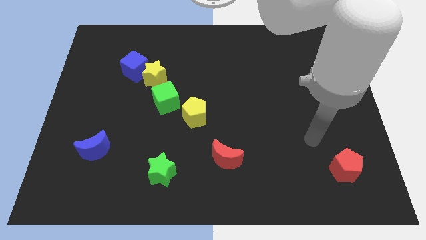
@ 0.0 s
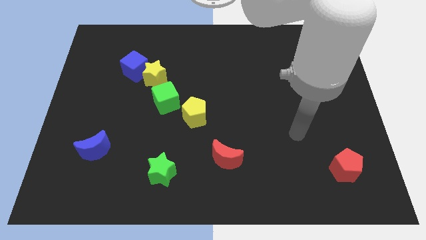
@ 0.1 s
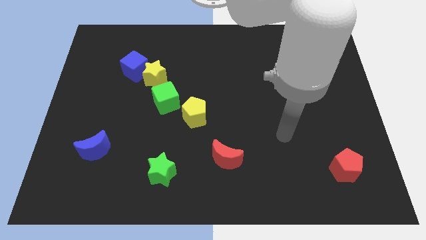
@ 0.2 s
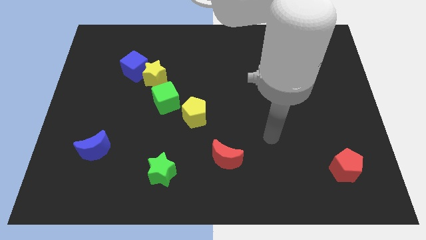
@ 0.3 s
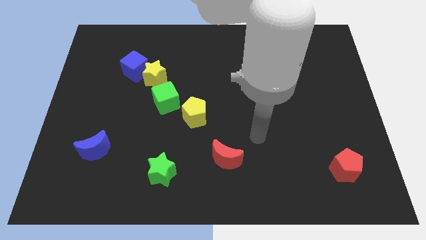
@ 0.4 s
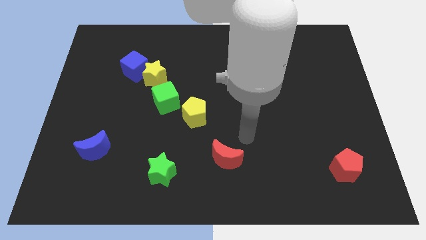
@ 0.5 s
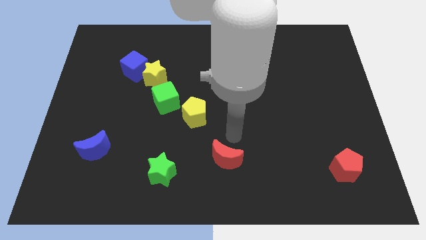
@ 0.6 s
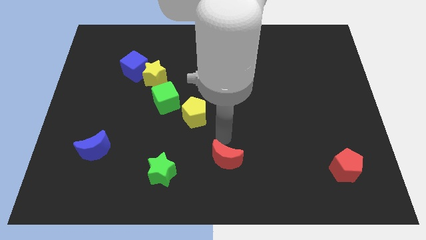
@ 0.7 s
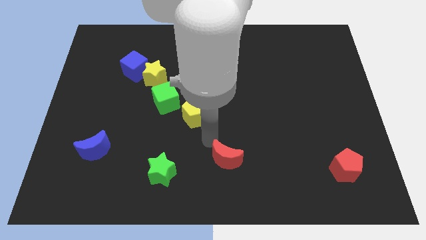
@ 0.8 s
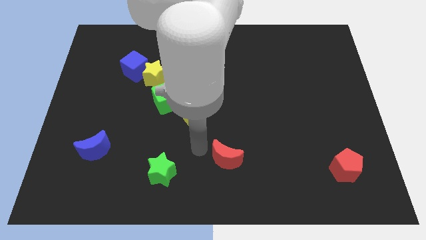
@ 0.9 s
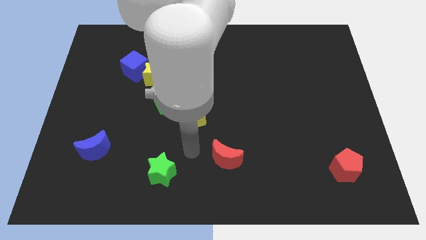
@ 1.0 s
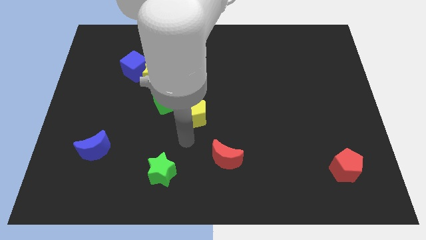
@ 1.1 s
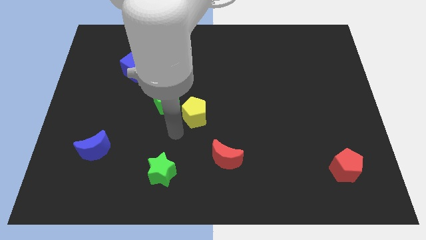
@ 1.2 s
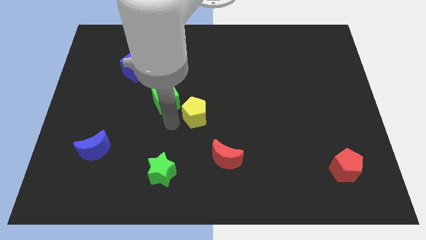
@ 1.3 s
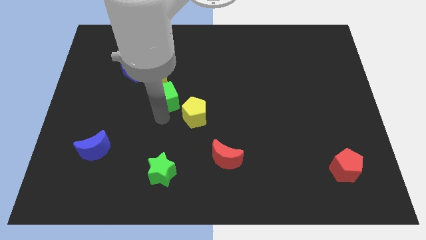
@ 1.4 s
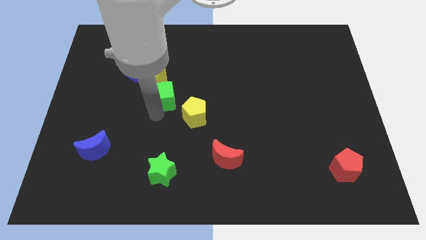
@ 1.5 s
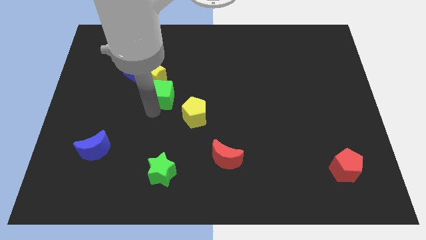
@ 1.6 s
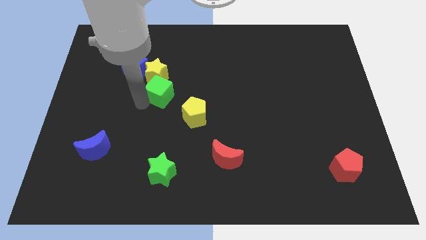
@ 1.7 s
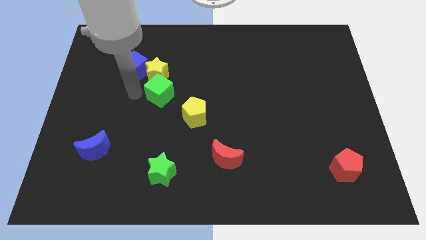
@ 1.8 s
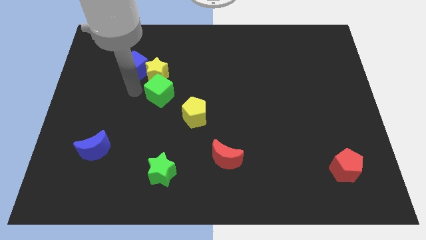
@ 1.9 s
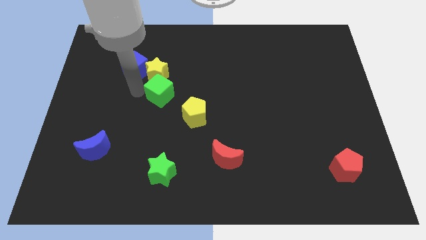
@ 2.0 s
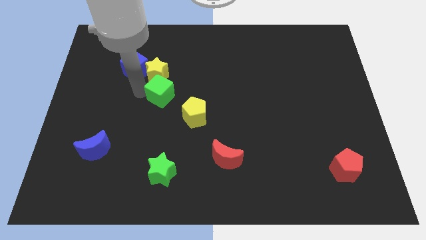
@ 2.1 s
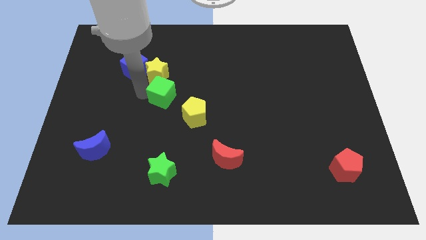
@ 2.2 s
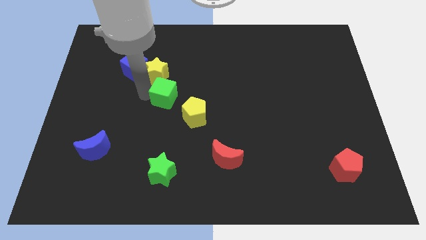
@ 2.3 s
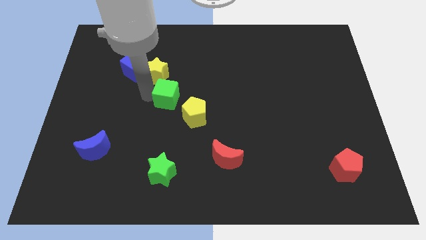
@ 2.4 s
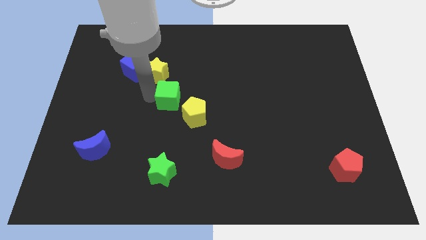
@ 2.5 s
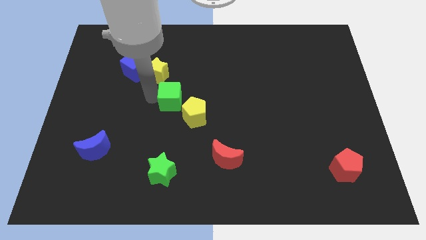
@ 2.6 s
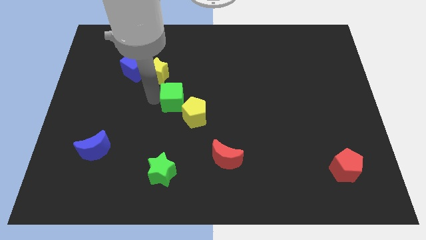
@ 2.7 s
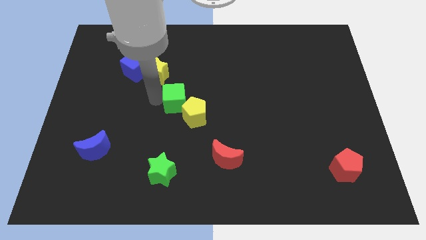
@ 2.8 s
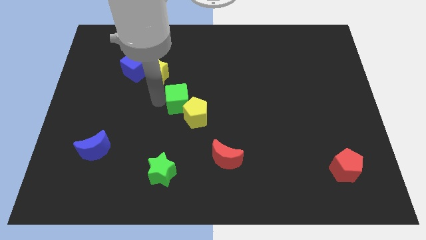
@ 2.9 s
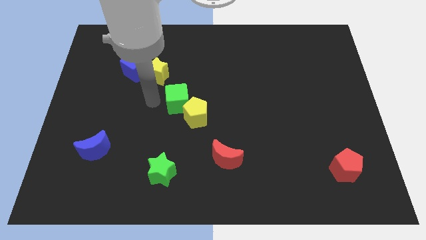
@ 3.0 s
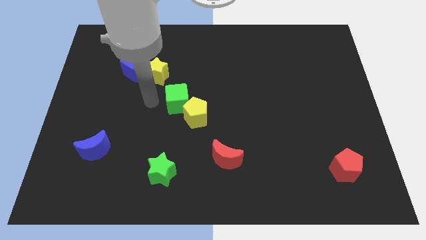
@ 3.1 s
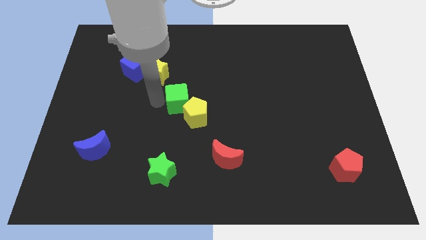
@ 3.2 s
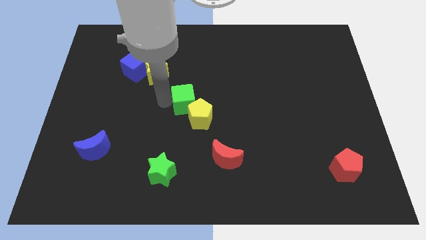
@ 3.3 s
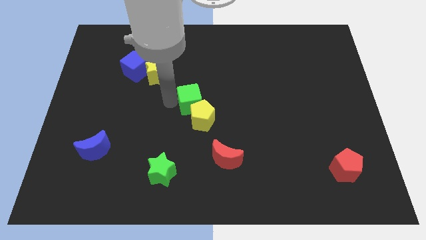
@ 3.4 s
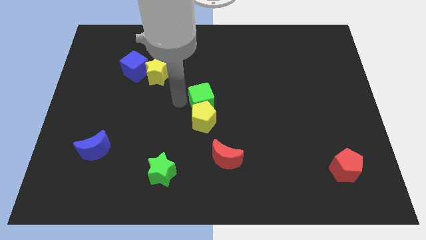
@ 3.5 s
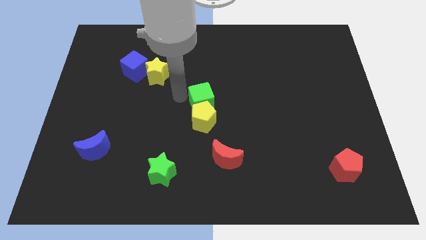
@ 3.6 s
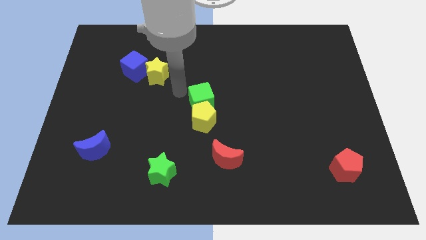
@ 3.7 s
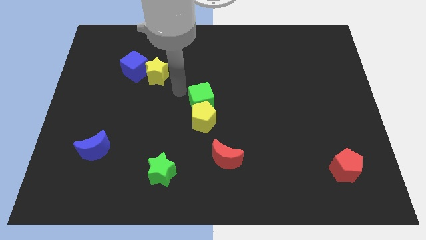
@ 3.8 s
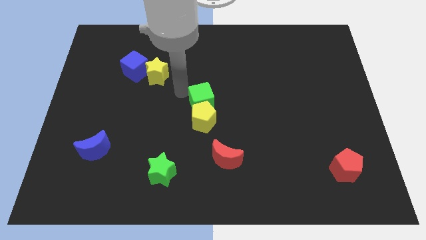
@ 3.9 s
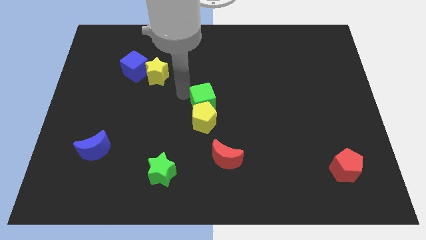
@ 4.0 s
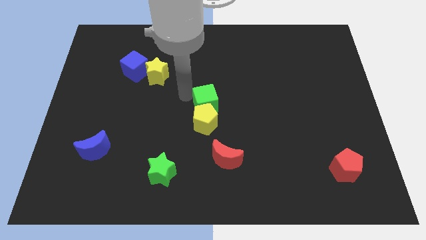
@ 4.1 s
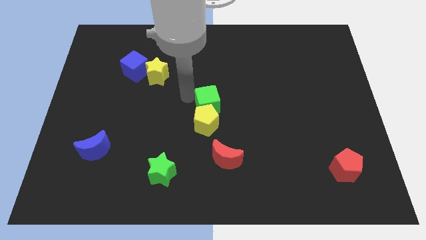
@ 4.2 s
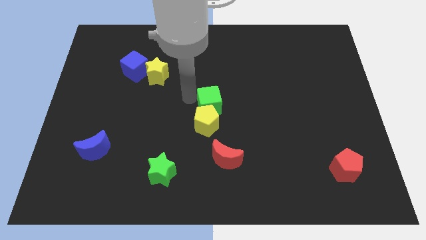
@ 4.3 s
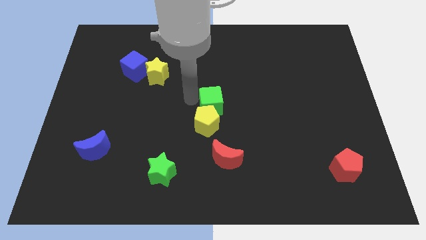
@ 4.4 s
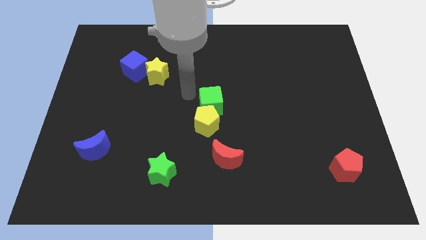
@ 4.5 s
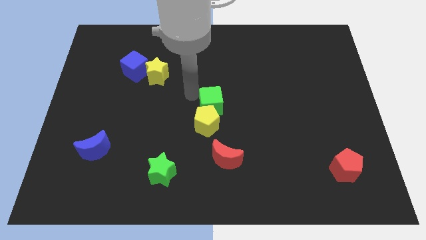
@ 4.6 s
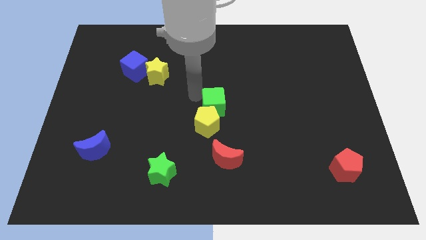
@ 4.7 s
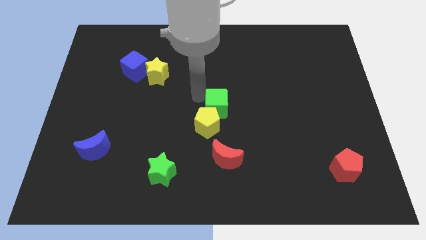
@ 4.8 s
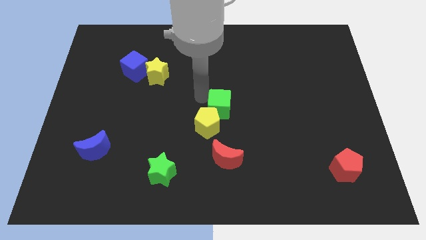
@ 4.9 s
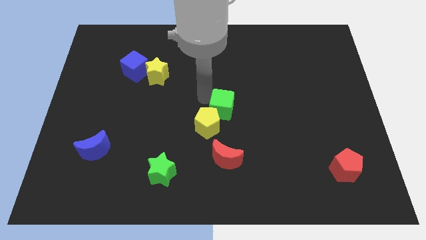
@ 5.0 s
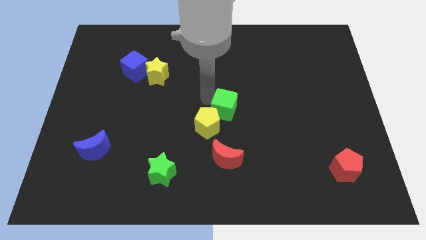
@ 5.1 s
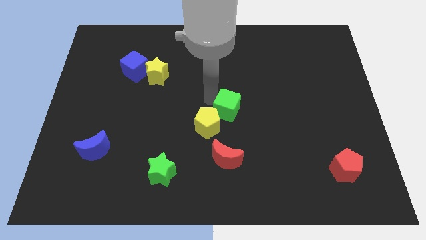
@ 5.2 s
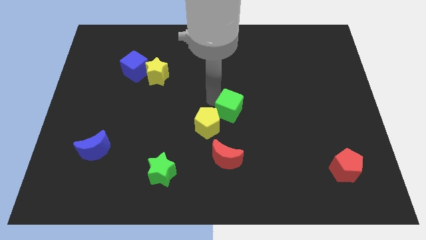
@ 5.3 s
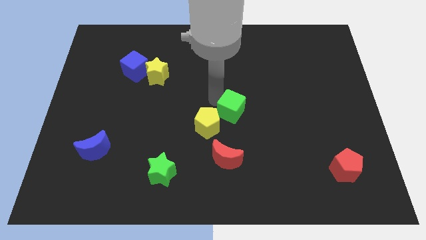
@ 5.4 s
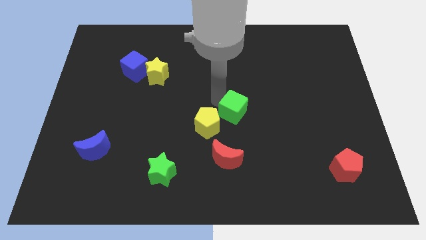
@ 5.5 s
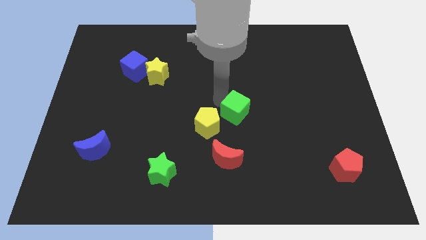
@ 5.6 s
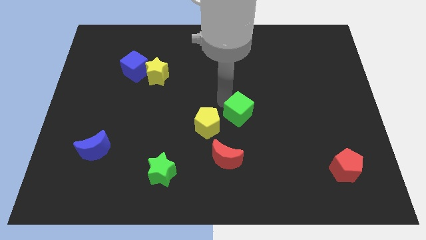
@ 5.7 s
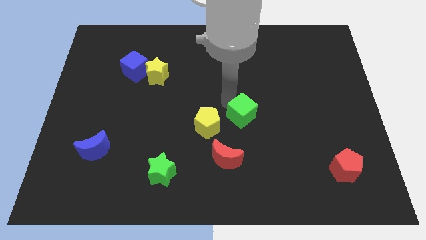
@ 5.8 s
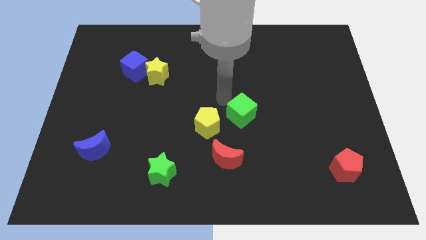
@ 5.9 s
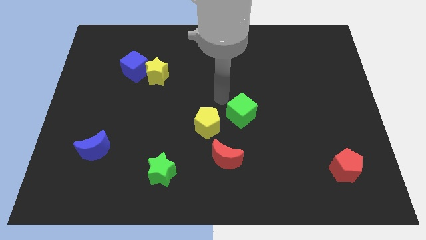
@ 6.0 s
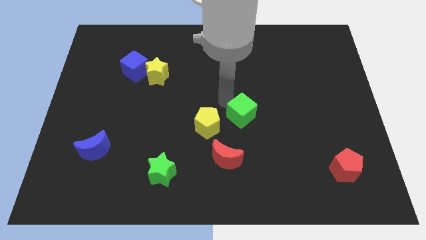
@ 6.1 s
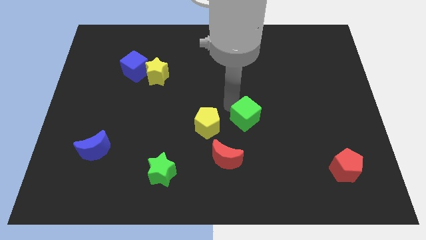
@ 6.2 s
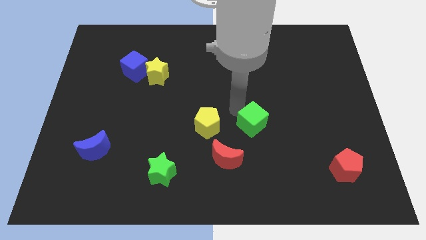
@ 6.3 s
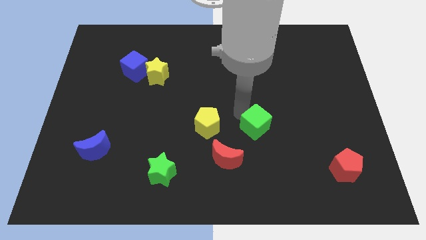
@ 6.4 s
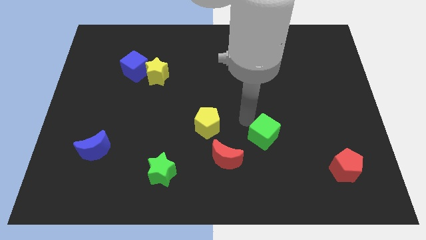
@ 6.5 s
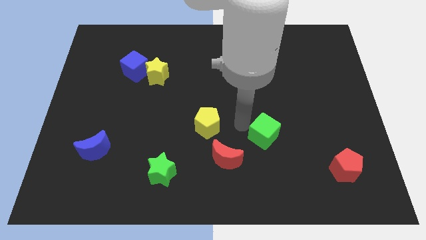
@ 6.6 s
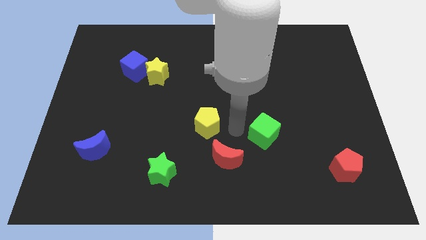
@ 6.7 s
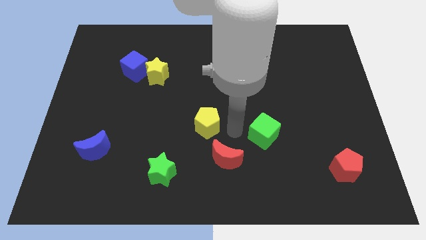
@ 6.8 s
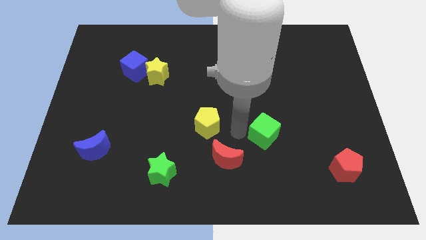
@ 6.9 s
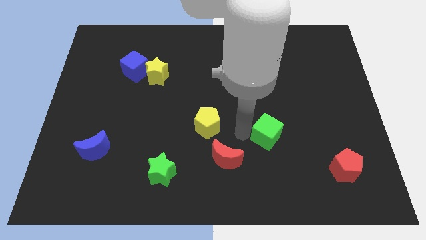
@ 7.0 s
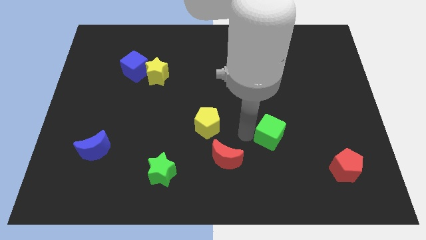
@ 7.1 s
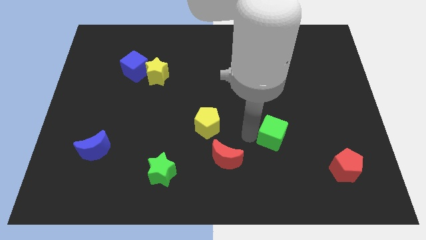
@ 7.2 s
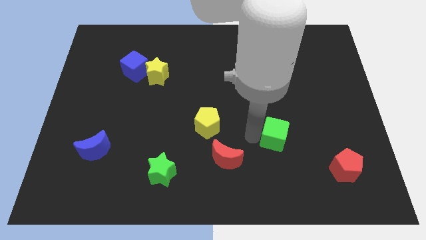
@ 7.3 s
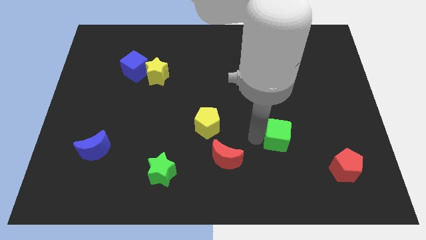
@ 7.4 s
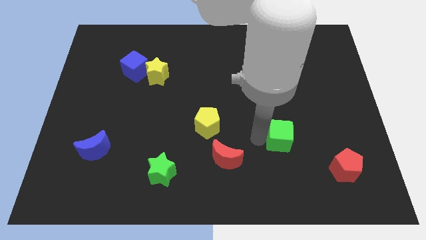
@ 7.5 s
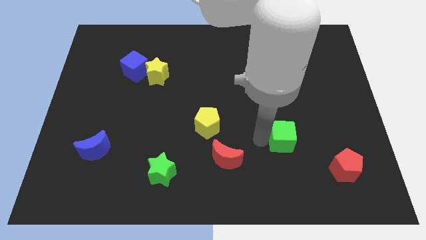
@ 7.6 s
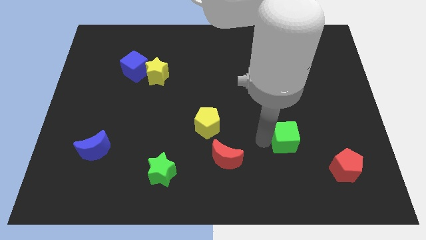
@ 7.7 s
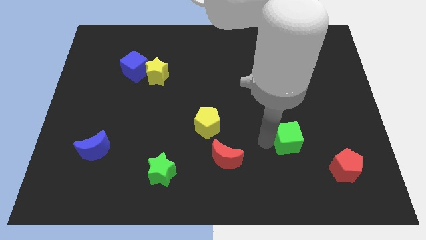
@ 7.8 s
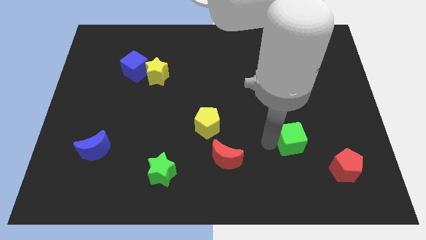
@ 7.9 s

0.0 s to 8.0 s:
put the green cube to the top left of the red pentagon
